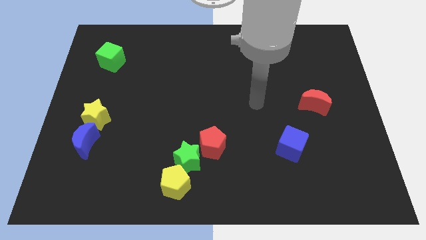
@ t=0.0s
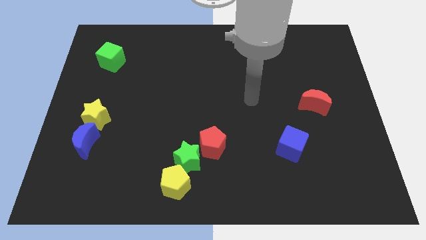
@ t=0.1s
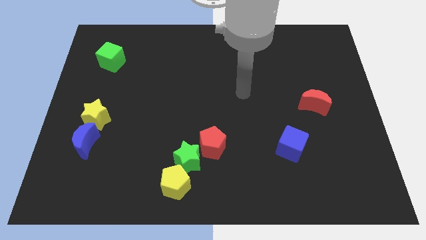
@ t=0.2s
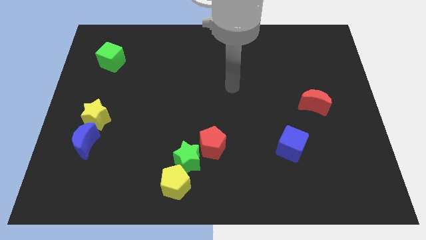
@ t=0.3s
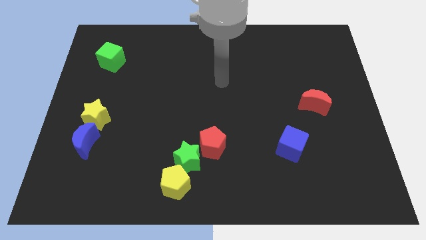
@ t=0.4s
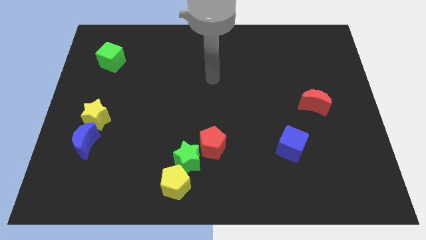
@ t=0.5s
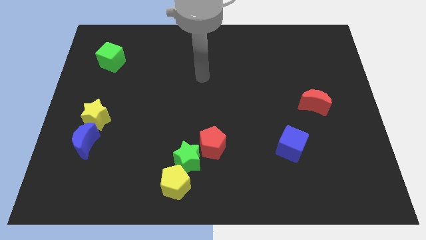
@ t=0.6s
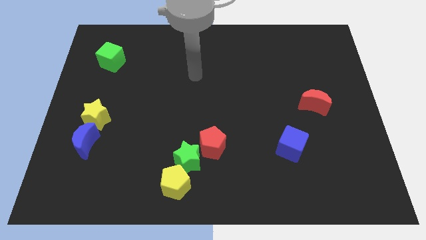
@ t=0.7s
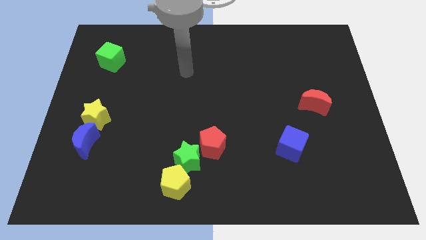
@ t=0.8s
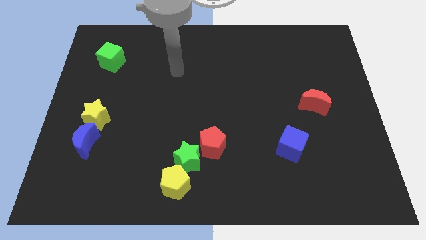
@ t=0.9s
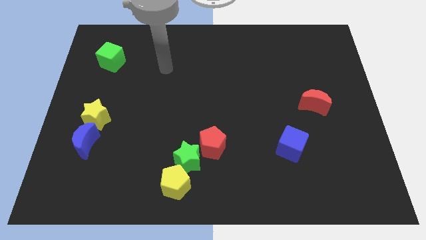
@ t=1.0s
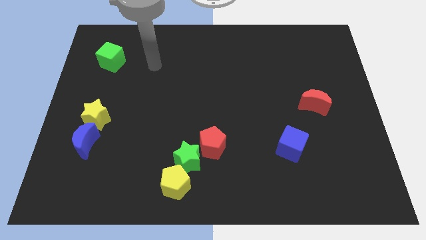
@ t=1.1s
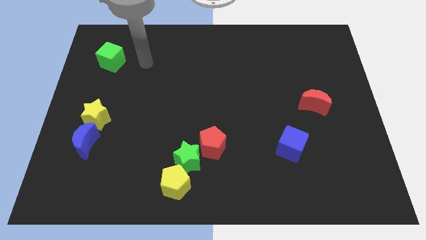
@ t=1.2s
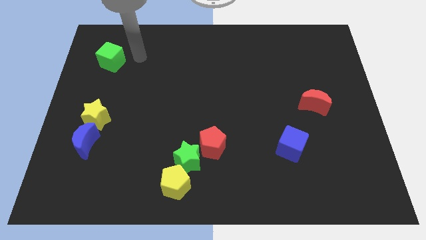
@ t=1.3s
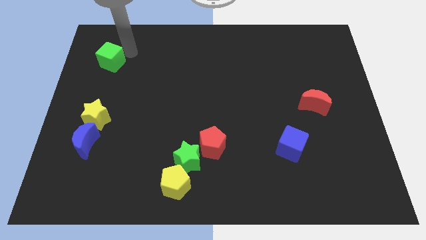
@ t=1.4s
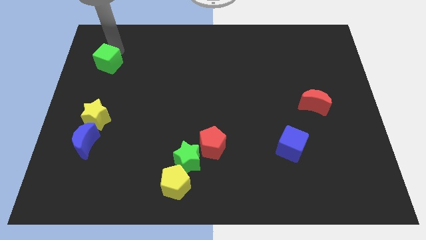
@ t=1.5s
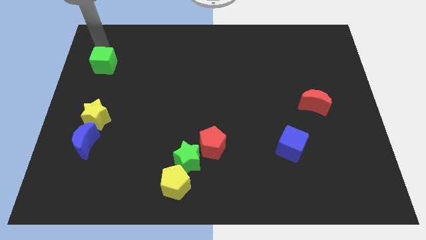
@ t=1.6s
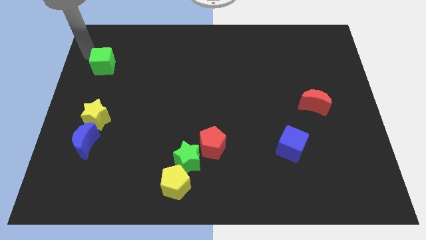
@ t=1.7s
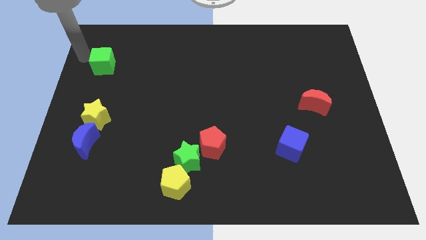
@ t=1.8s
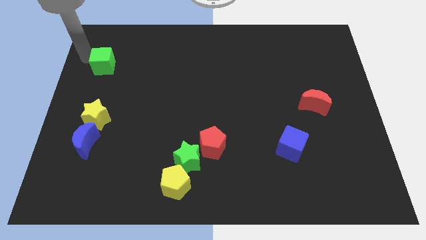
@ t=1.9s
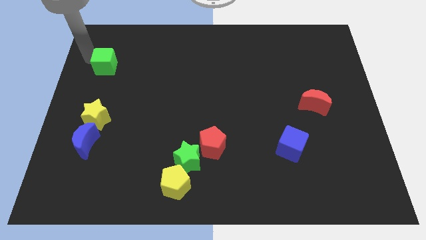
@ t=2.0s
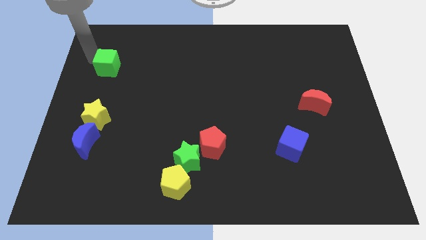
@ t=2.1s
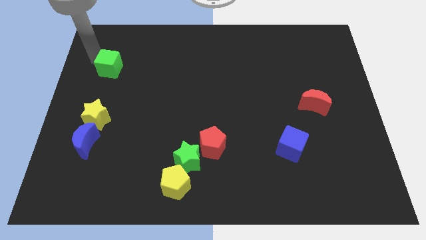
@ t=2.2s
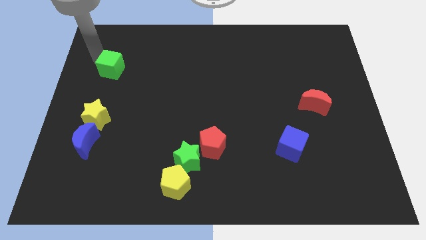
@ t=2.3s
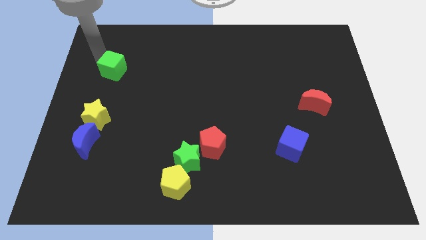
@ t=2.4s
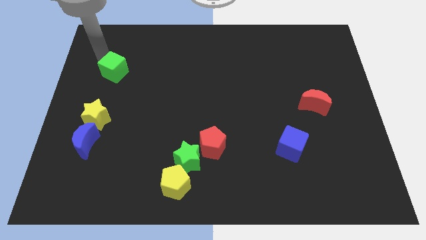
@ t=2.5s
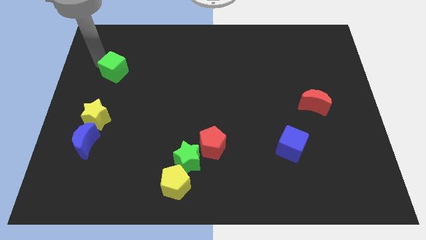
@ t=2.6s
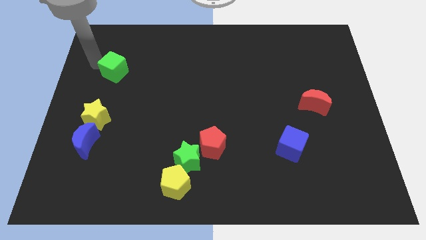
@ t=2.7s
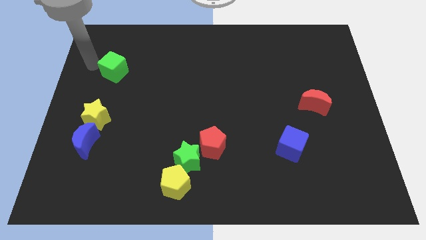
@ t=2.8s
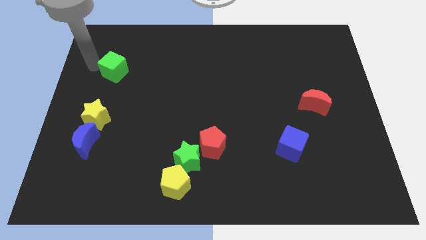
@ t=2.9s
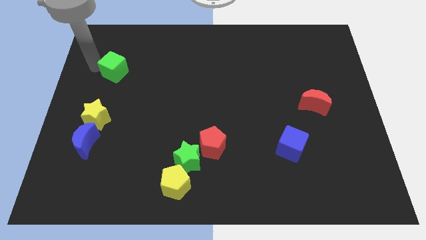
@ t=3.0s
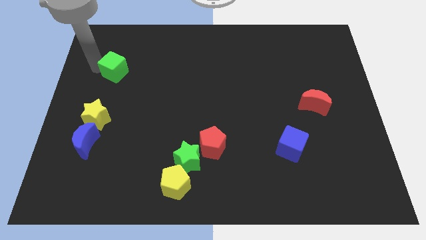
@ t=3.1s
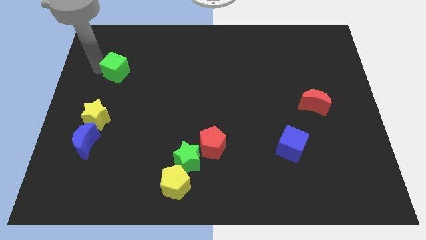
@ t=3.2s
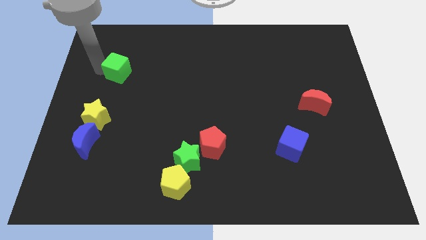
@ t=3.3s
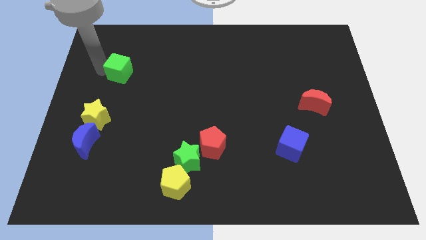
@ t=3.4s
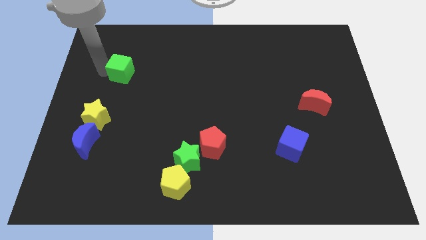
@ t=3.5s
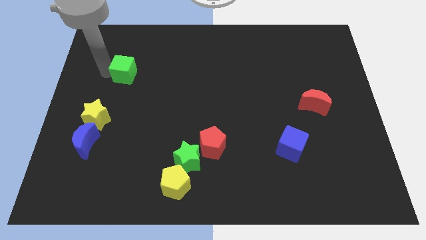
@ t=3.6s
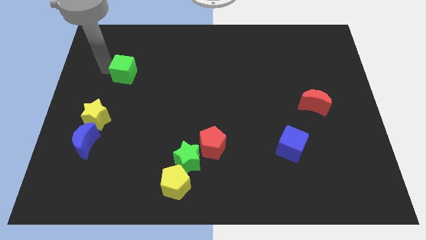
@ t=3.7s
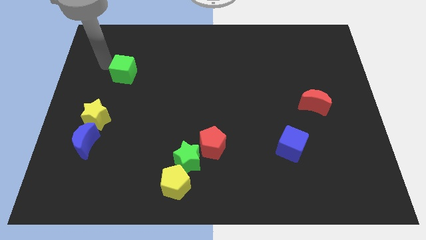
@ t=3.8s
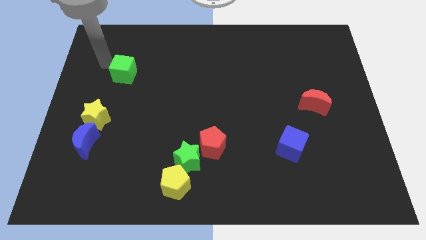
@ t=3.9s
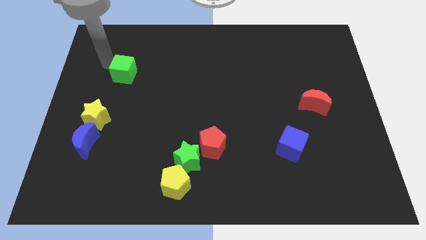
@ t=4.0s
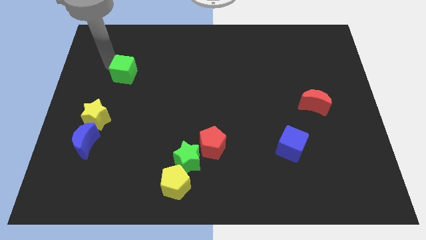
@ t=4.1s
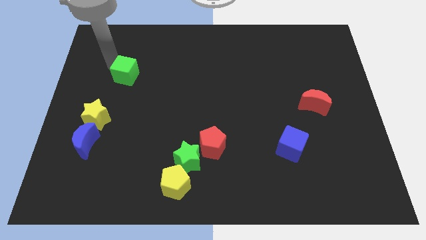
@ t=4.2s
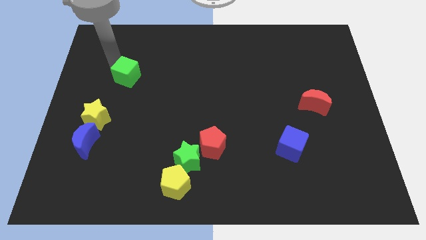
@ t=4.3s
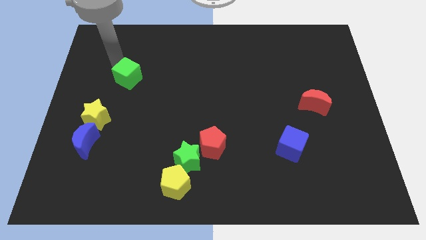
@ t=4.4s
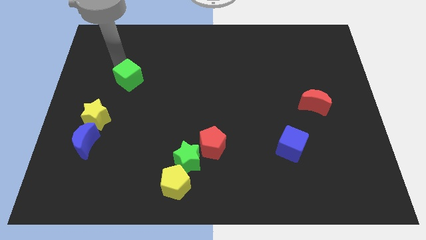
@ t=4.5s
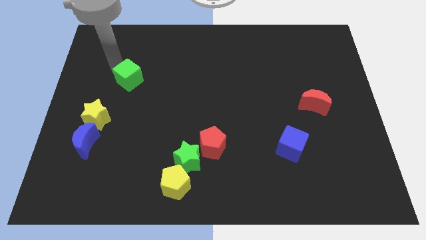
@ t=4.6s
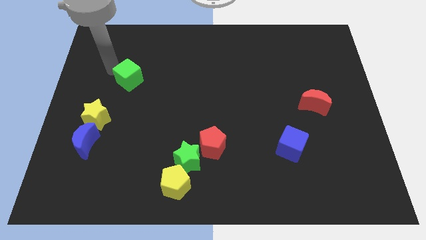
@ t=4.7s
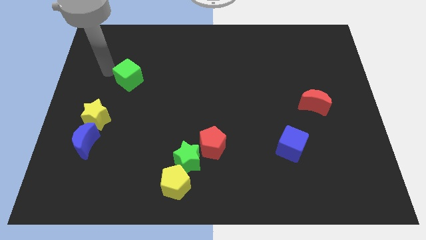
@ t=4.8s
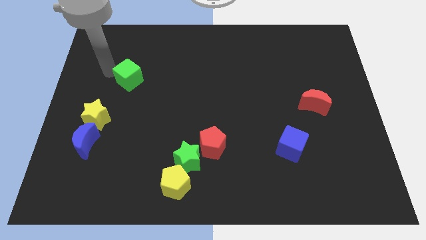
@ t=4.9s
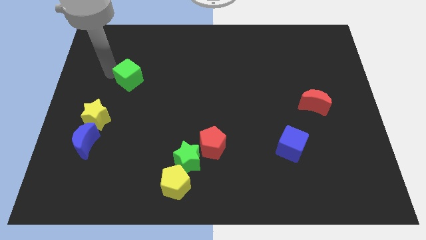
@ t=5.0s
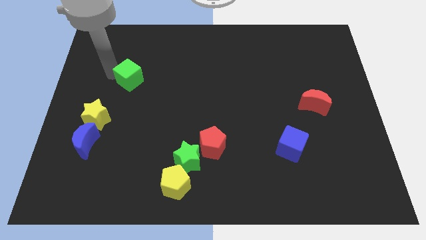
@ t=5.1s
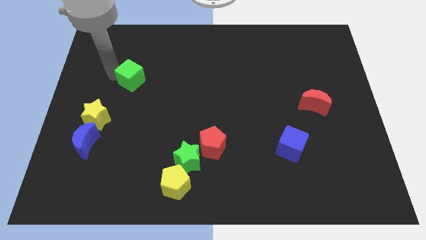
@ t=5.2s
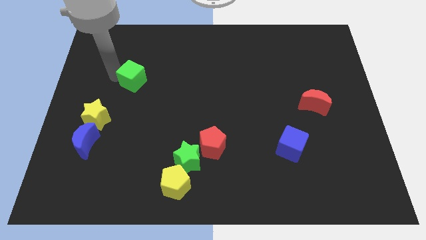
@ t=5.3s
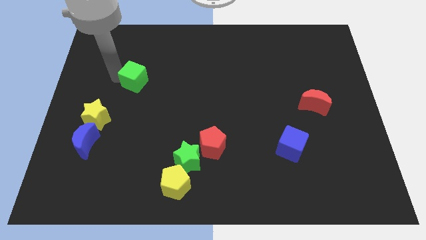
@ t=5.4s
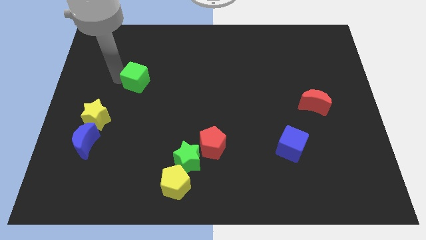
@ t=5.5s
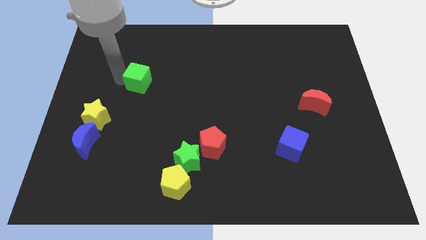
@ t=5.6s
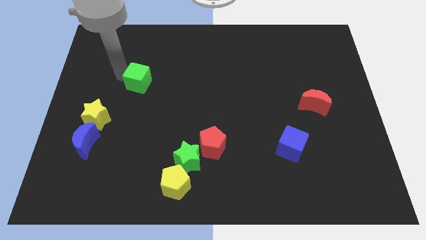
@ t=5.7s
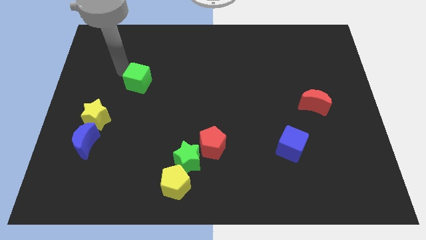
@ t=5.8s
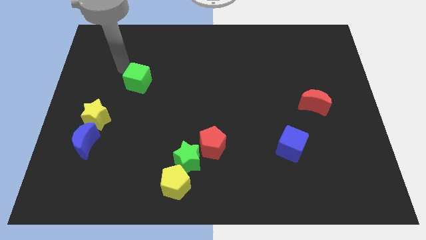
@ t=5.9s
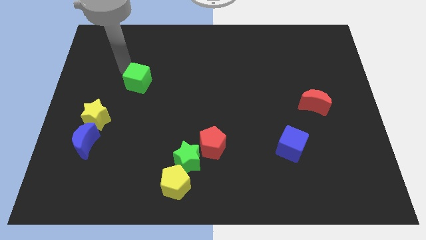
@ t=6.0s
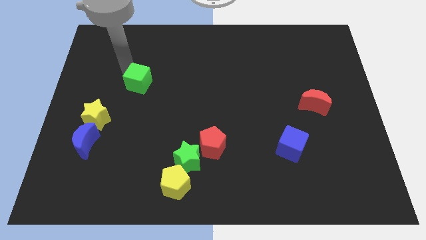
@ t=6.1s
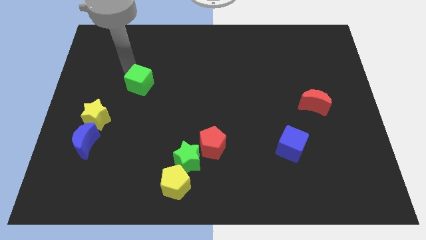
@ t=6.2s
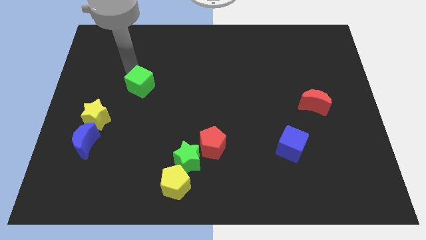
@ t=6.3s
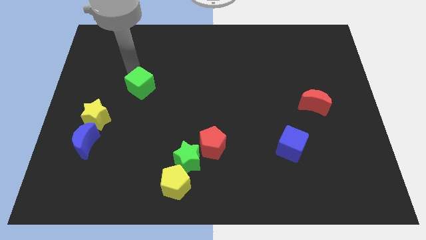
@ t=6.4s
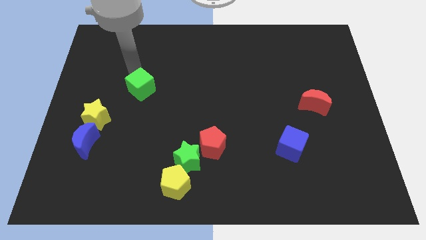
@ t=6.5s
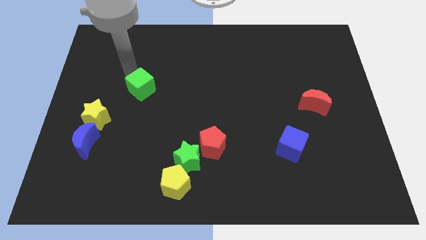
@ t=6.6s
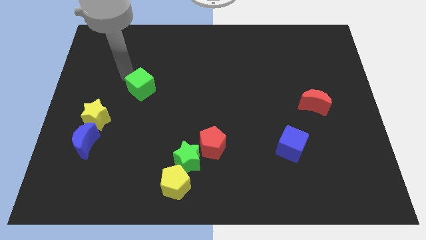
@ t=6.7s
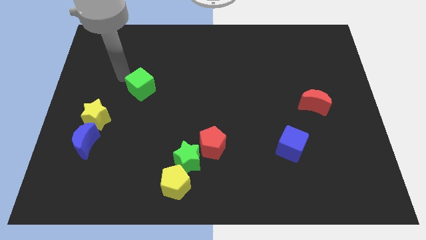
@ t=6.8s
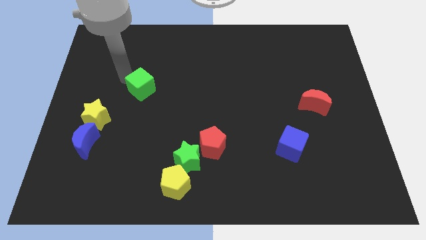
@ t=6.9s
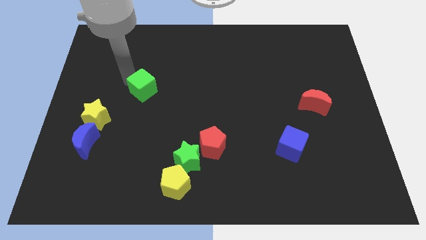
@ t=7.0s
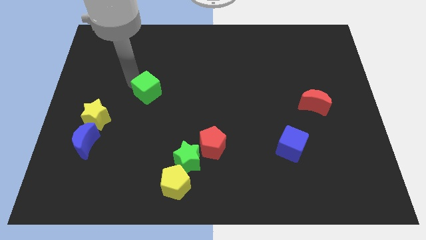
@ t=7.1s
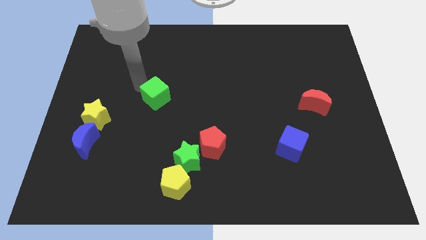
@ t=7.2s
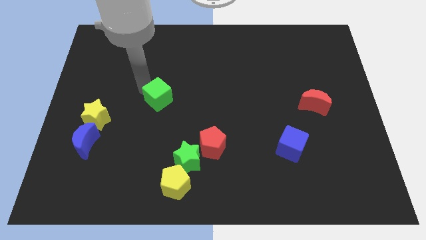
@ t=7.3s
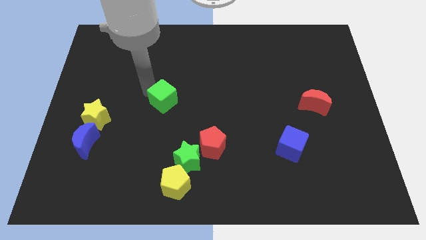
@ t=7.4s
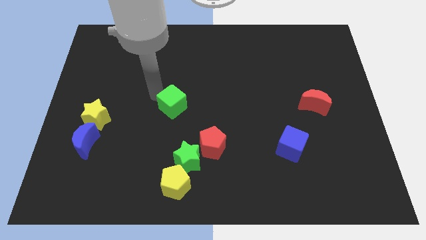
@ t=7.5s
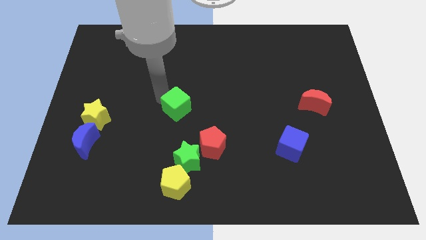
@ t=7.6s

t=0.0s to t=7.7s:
push the green cube above the green star
